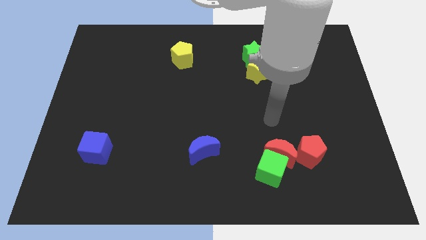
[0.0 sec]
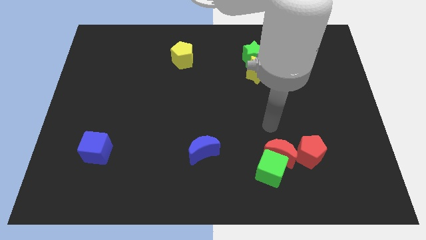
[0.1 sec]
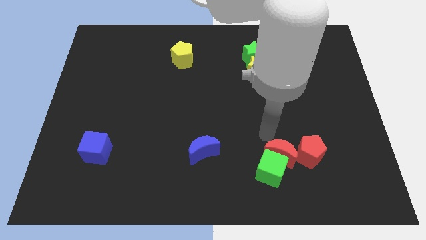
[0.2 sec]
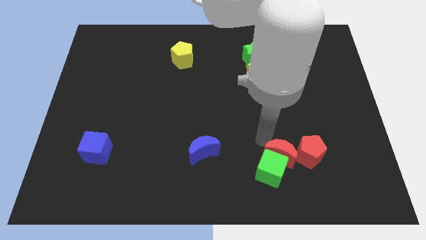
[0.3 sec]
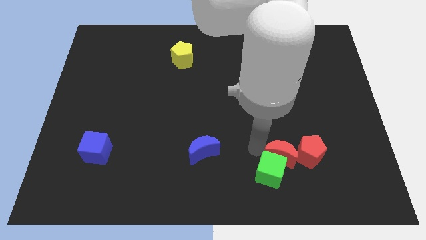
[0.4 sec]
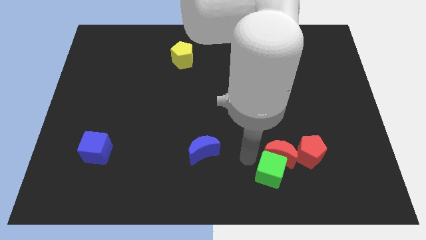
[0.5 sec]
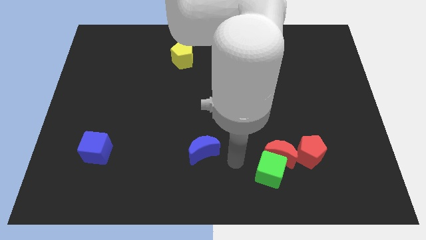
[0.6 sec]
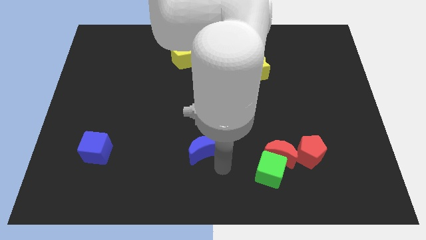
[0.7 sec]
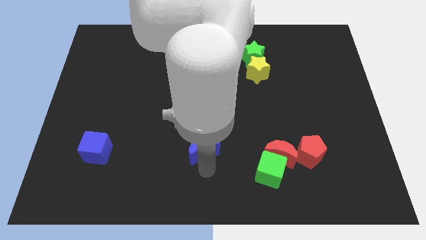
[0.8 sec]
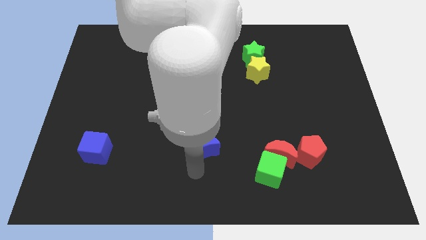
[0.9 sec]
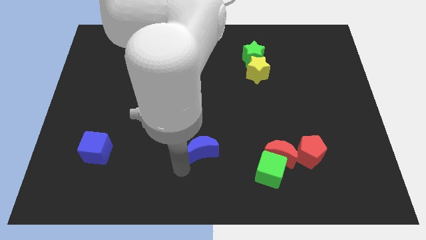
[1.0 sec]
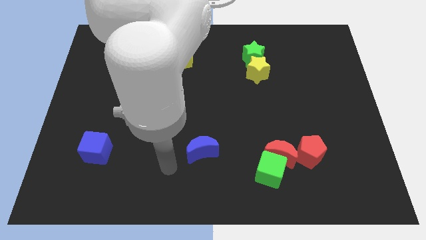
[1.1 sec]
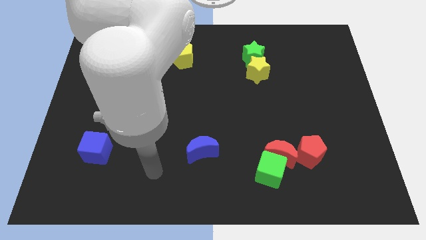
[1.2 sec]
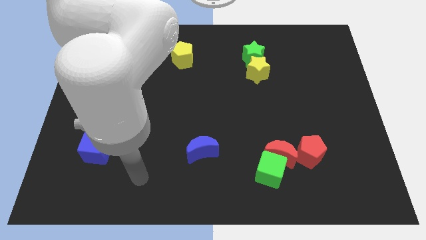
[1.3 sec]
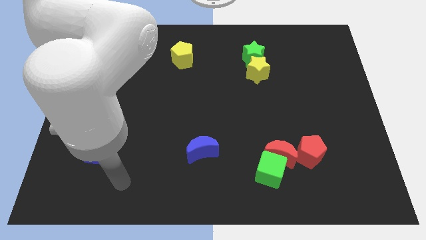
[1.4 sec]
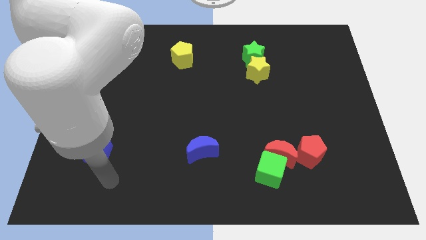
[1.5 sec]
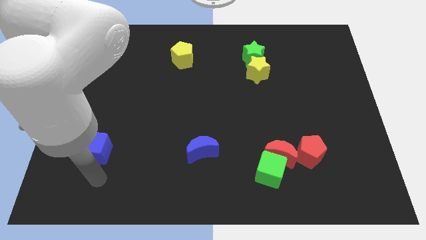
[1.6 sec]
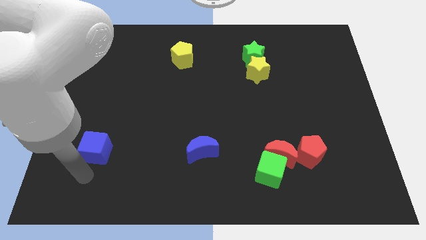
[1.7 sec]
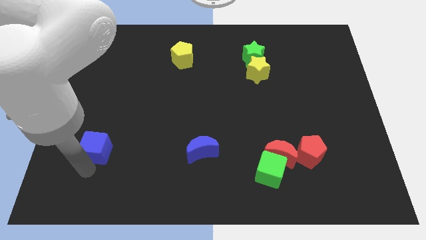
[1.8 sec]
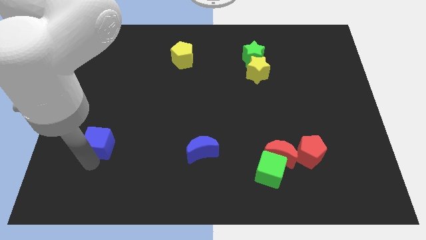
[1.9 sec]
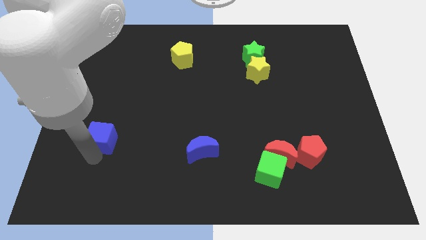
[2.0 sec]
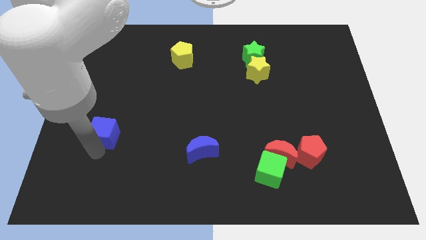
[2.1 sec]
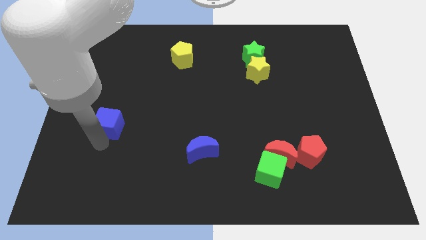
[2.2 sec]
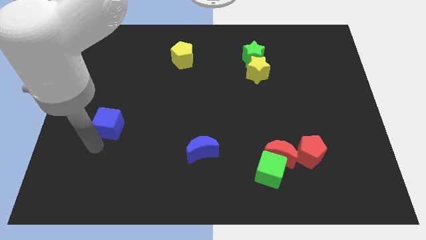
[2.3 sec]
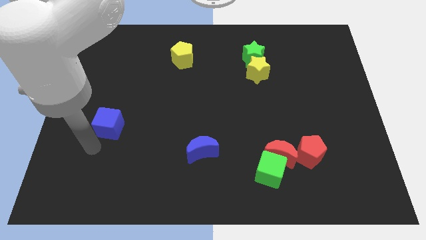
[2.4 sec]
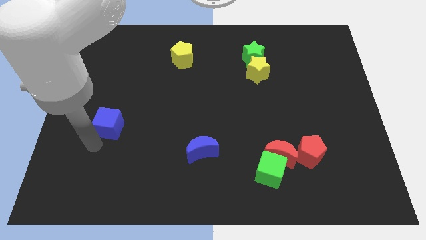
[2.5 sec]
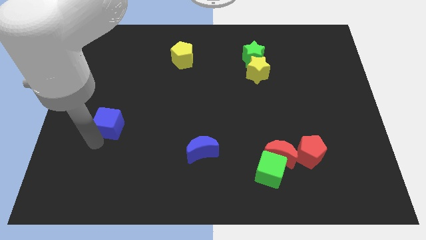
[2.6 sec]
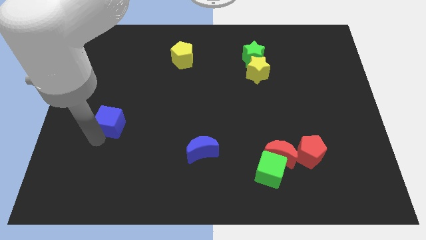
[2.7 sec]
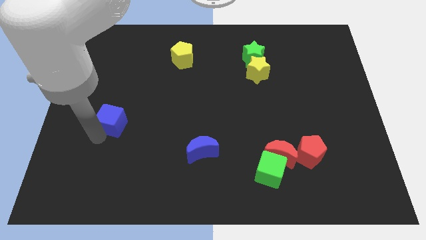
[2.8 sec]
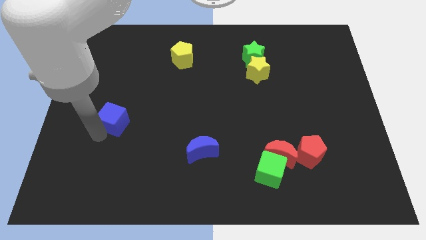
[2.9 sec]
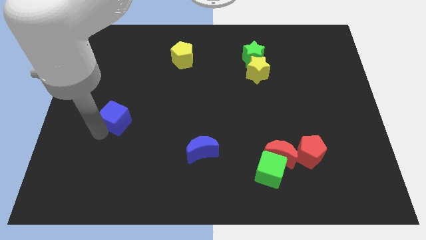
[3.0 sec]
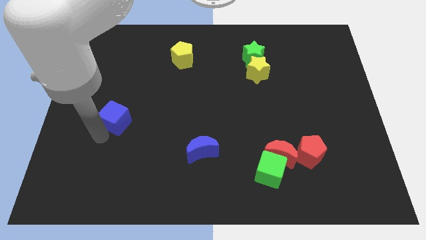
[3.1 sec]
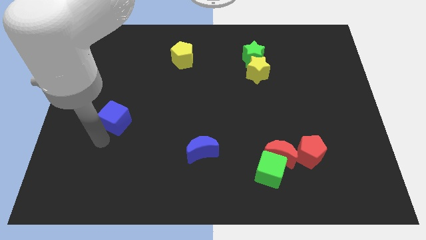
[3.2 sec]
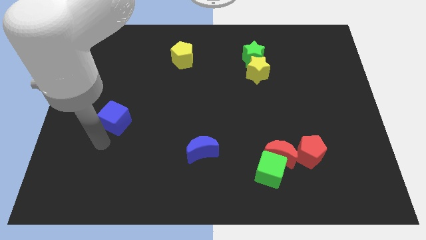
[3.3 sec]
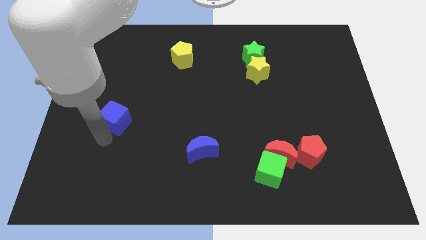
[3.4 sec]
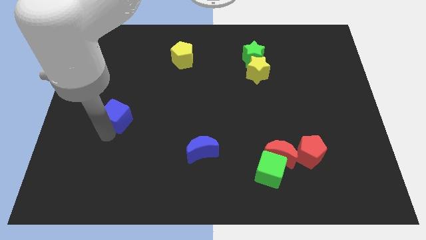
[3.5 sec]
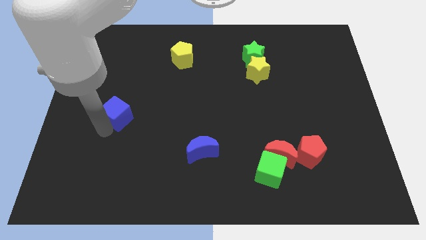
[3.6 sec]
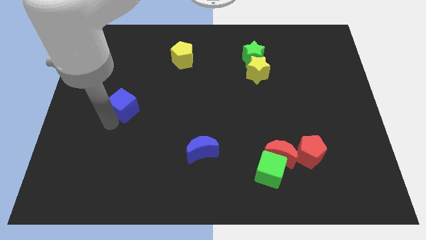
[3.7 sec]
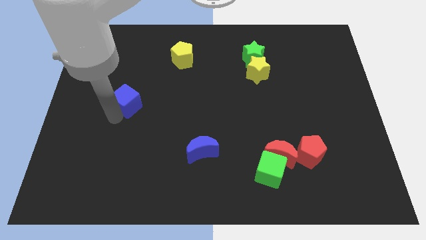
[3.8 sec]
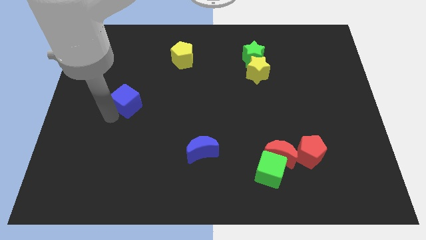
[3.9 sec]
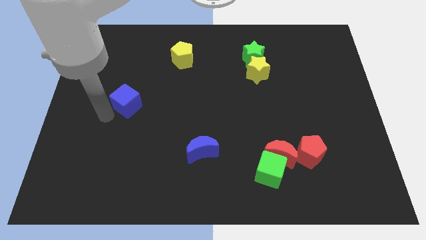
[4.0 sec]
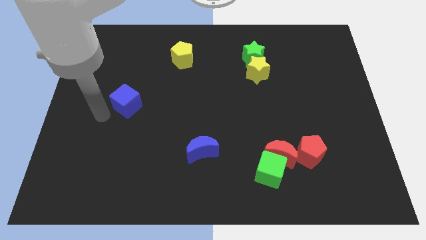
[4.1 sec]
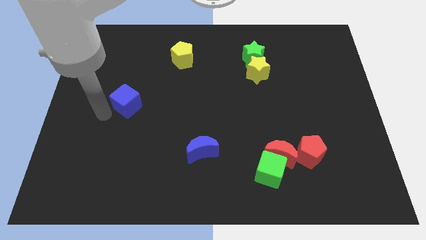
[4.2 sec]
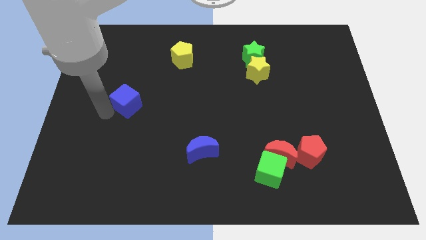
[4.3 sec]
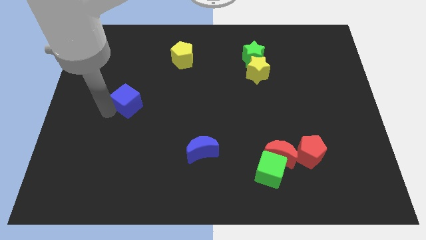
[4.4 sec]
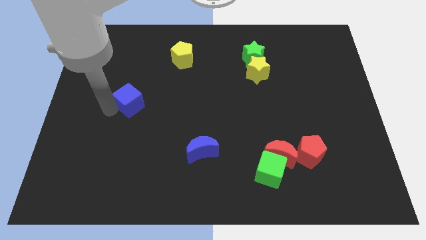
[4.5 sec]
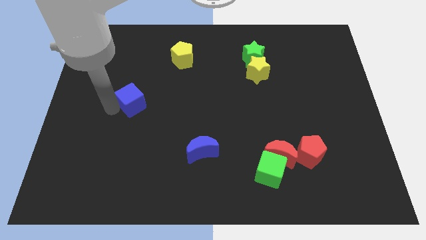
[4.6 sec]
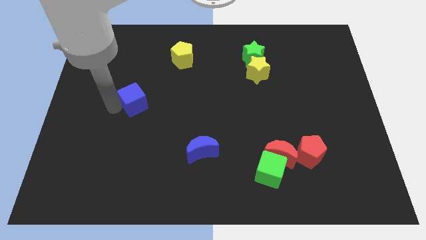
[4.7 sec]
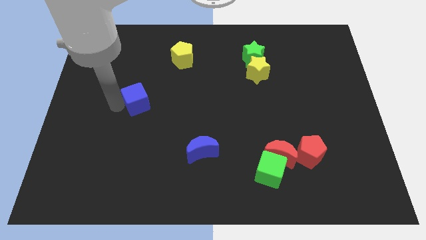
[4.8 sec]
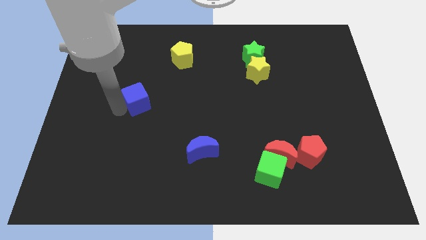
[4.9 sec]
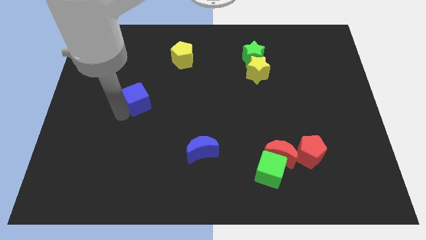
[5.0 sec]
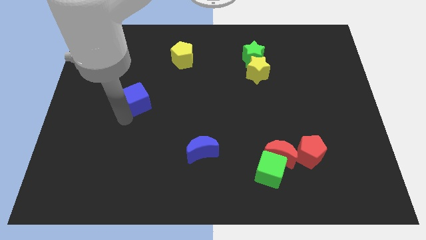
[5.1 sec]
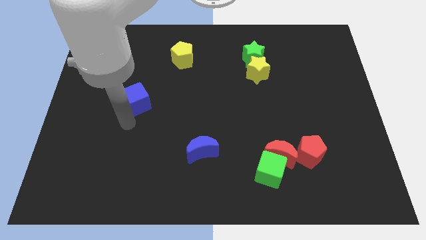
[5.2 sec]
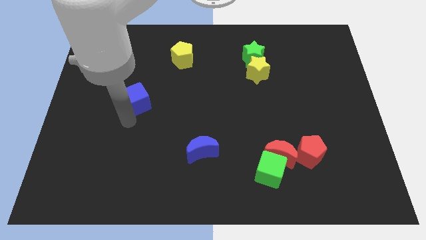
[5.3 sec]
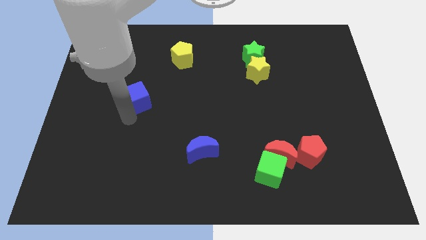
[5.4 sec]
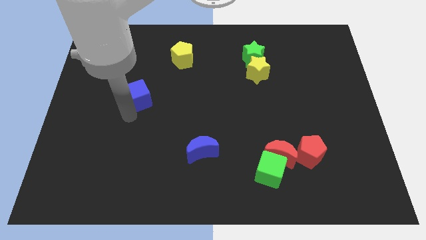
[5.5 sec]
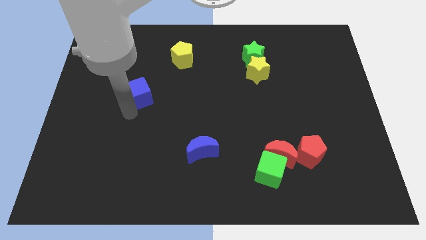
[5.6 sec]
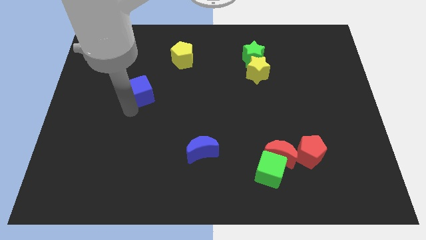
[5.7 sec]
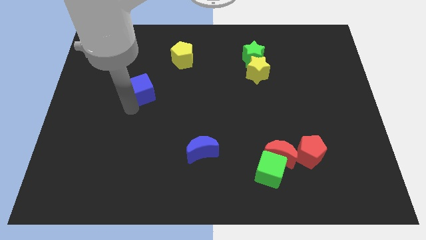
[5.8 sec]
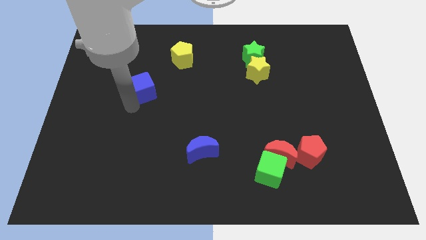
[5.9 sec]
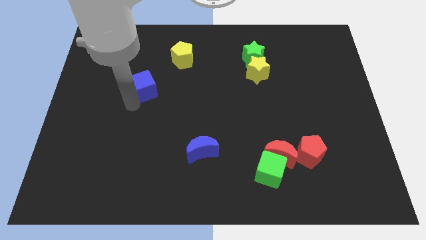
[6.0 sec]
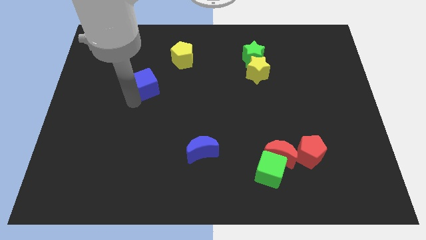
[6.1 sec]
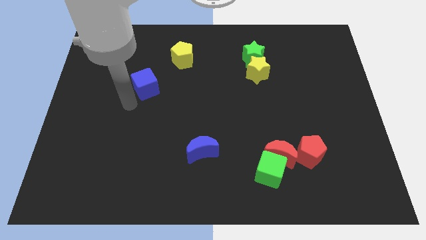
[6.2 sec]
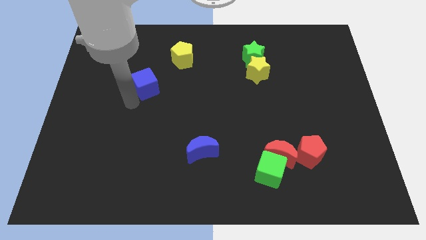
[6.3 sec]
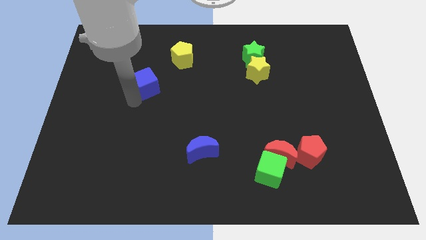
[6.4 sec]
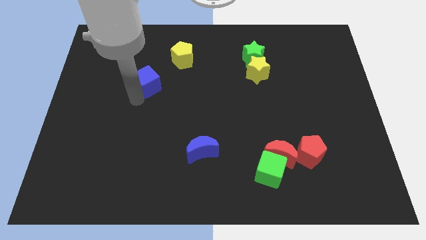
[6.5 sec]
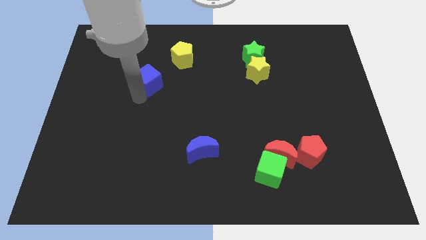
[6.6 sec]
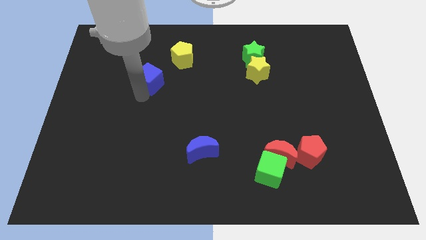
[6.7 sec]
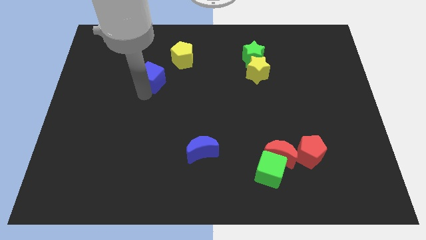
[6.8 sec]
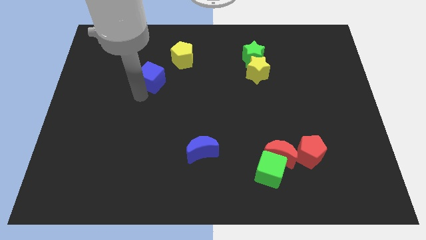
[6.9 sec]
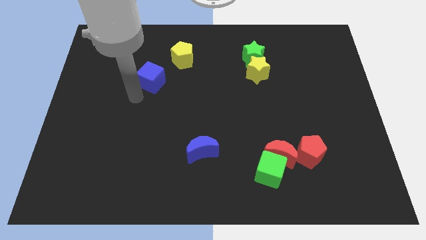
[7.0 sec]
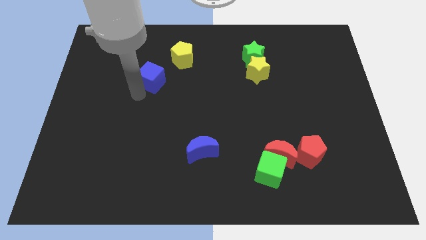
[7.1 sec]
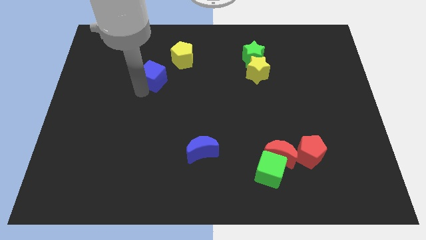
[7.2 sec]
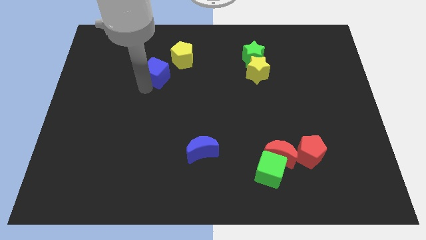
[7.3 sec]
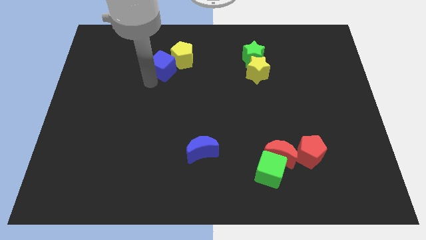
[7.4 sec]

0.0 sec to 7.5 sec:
put the blue cube towards the yellow pentagon

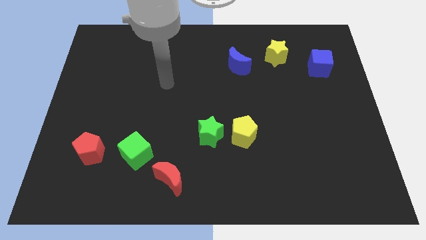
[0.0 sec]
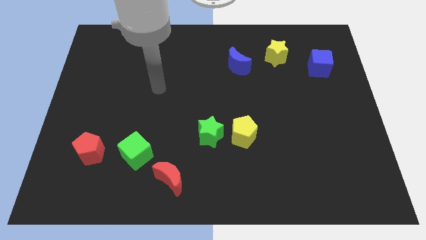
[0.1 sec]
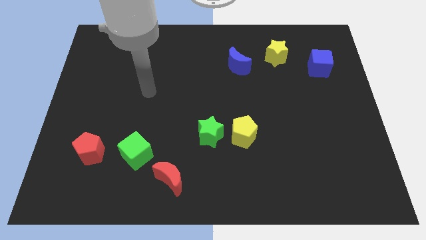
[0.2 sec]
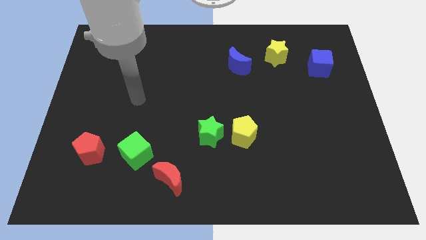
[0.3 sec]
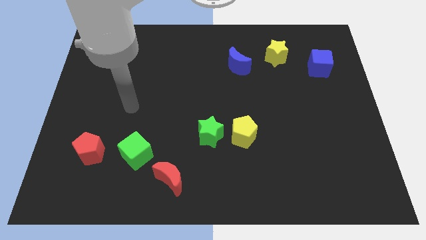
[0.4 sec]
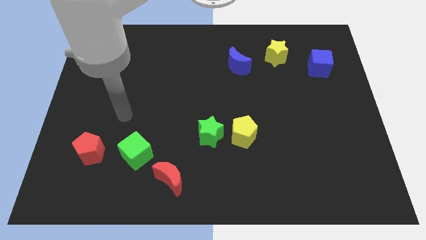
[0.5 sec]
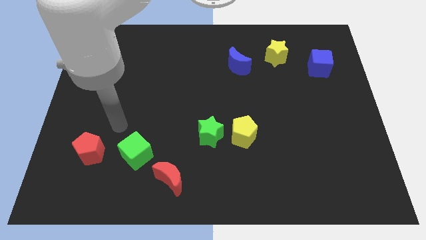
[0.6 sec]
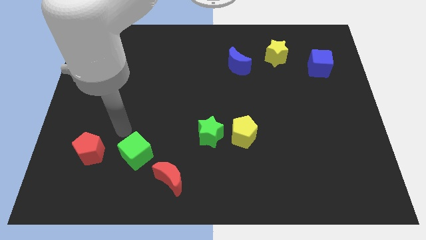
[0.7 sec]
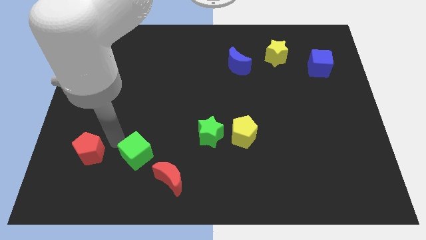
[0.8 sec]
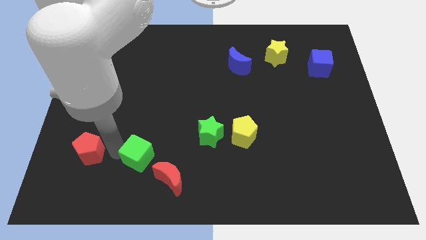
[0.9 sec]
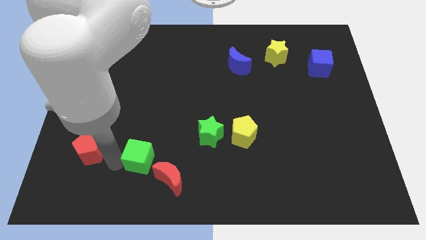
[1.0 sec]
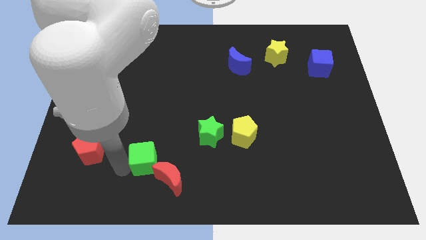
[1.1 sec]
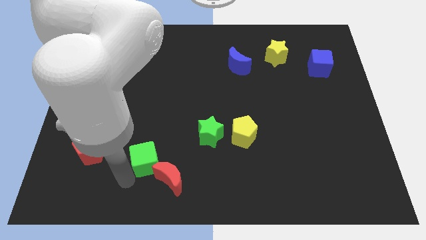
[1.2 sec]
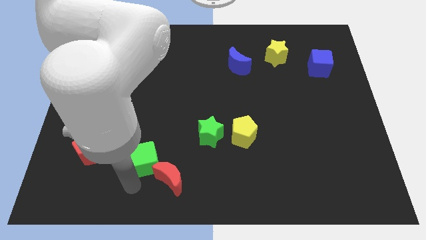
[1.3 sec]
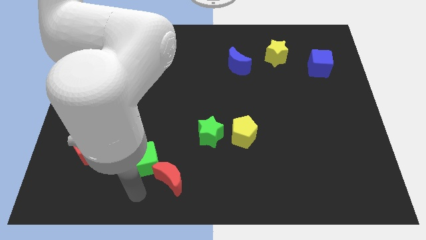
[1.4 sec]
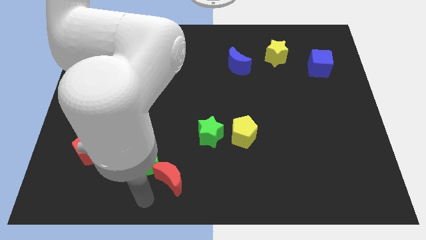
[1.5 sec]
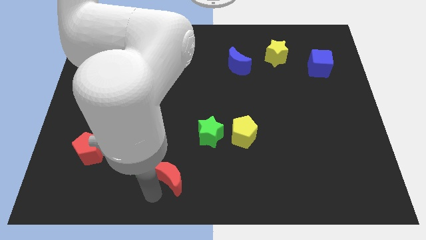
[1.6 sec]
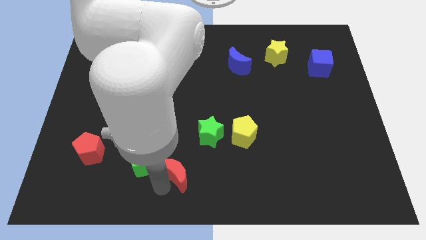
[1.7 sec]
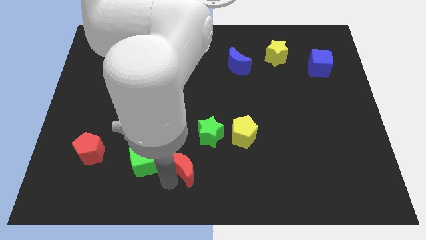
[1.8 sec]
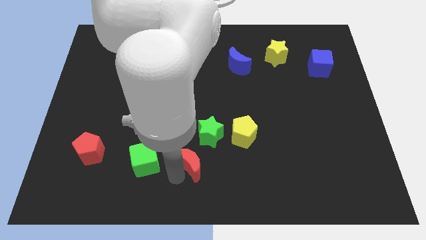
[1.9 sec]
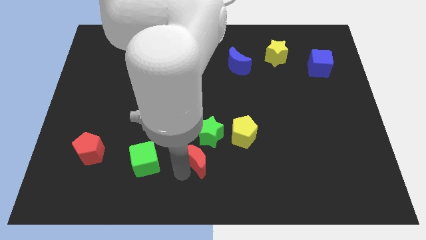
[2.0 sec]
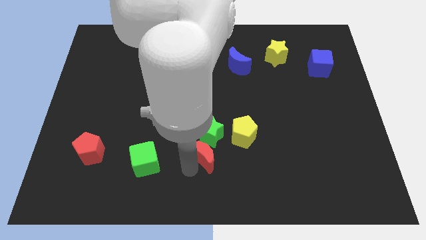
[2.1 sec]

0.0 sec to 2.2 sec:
push the red moon close to the green star
